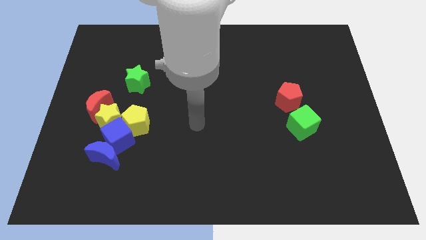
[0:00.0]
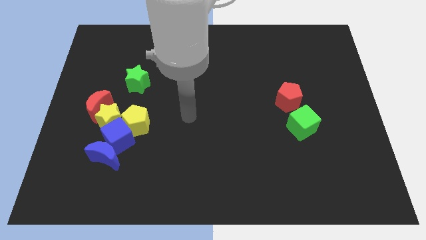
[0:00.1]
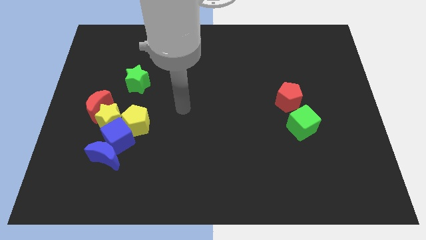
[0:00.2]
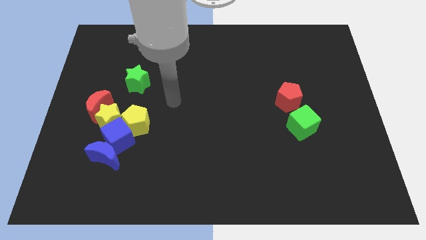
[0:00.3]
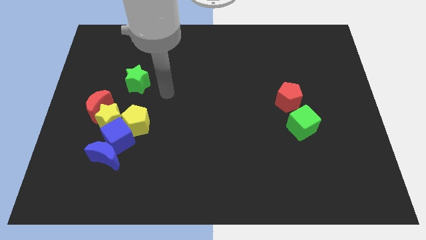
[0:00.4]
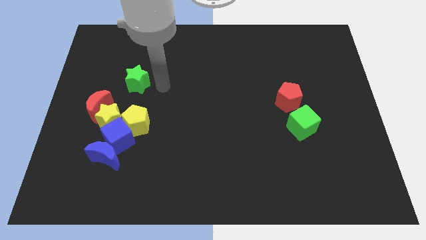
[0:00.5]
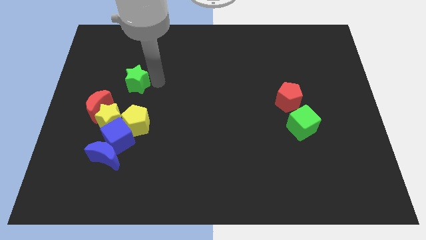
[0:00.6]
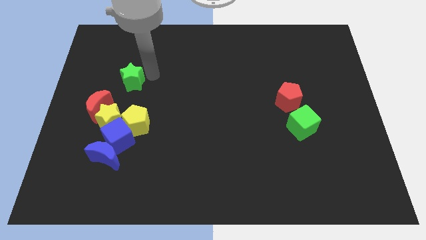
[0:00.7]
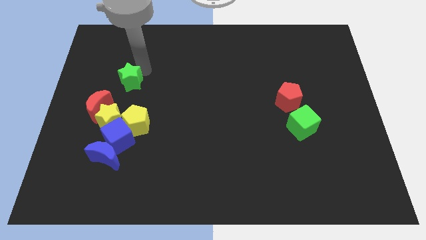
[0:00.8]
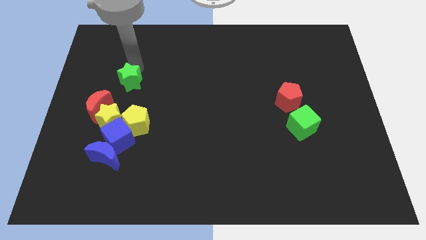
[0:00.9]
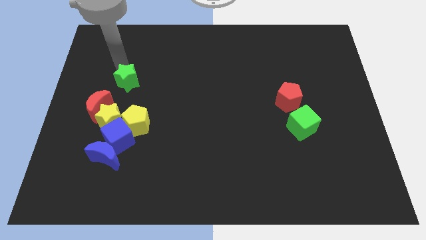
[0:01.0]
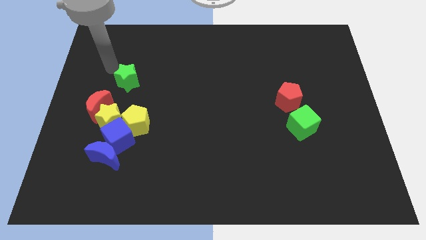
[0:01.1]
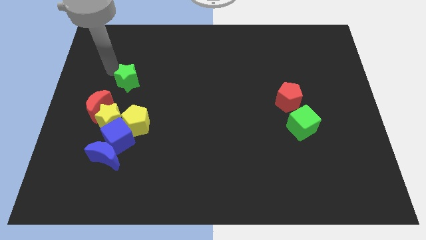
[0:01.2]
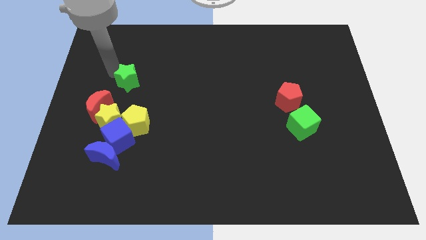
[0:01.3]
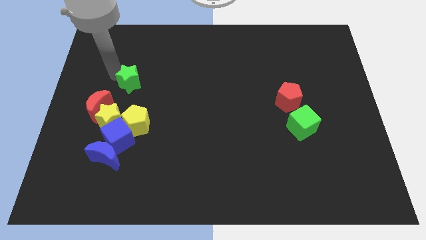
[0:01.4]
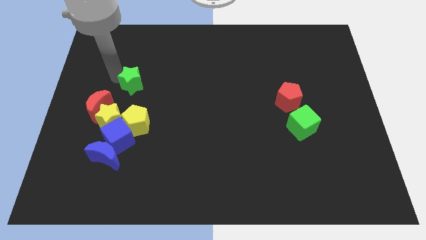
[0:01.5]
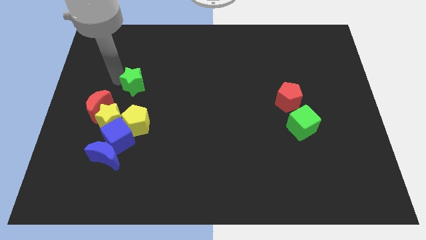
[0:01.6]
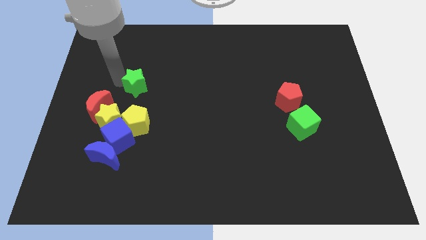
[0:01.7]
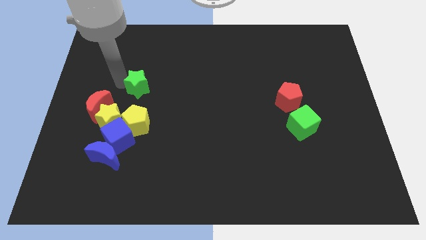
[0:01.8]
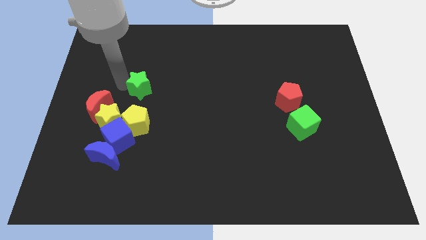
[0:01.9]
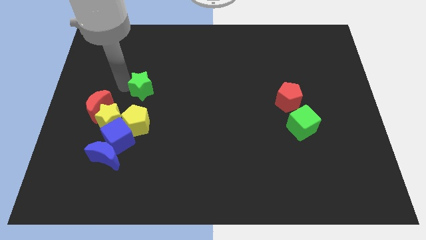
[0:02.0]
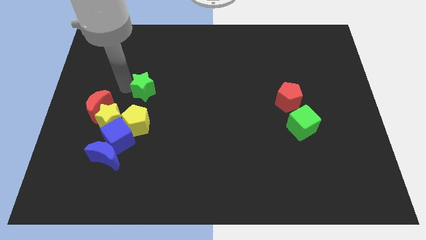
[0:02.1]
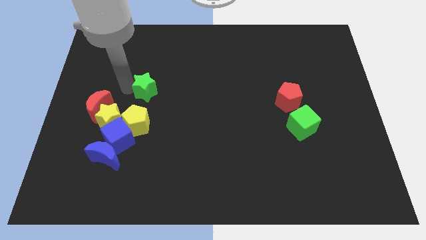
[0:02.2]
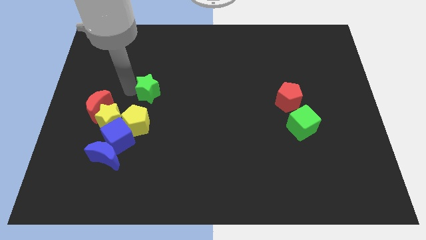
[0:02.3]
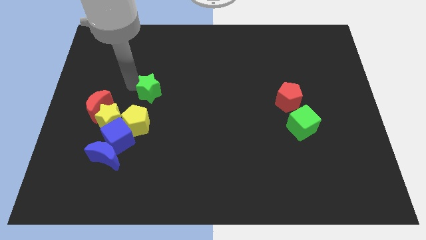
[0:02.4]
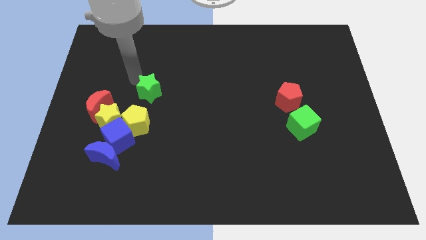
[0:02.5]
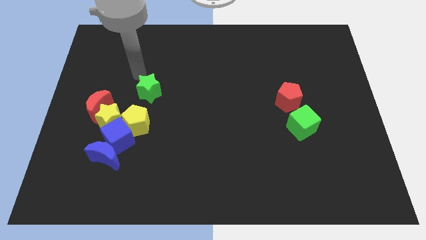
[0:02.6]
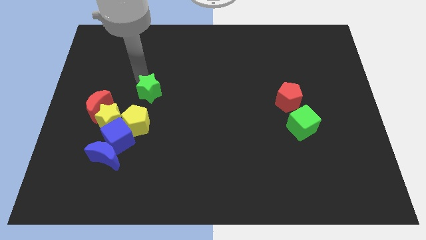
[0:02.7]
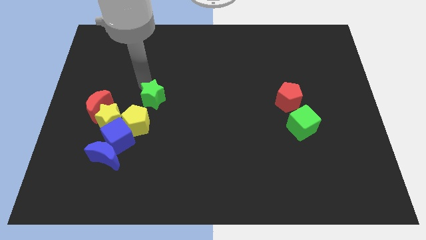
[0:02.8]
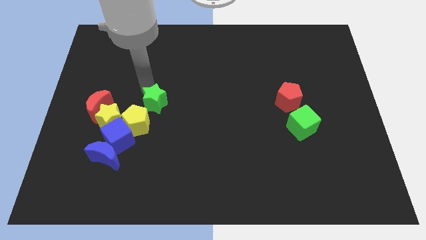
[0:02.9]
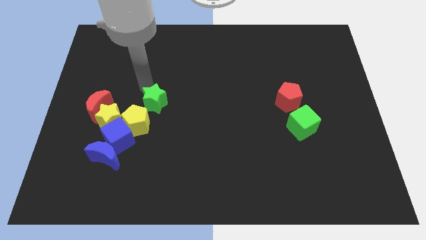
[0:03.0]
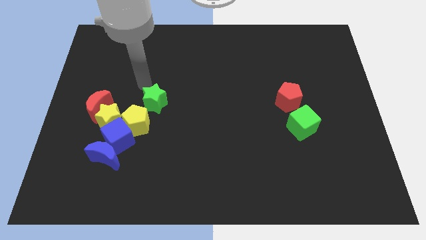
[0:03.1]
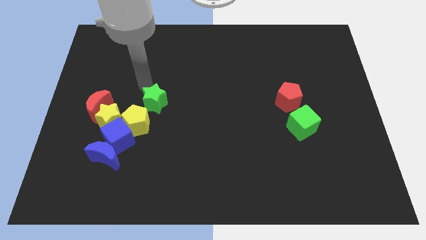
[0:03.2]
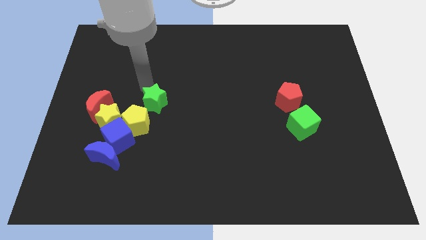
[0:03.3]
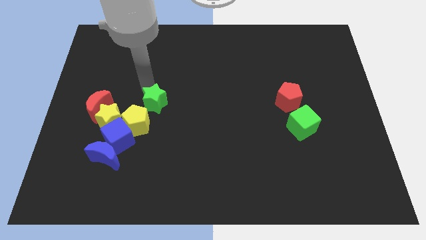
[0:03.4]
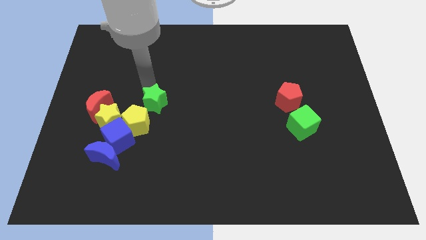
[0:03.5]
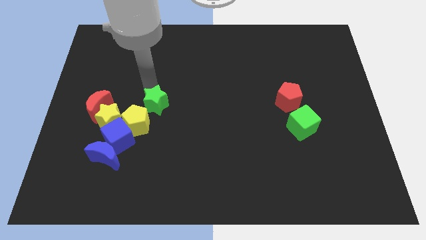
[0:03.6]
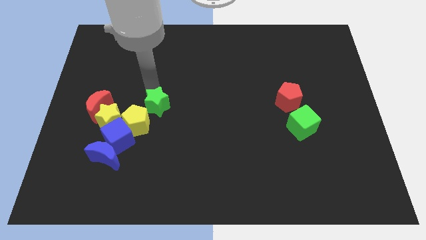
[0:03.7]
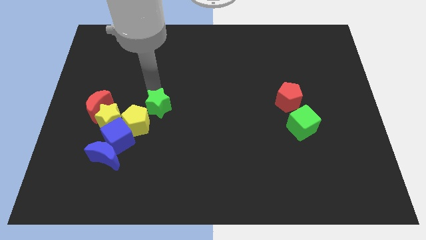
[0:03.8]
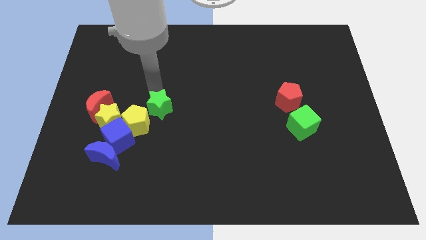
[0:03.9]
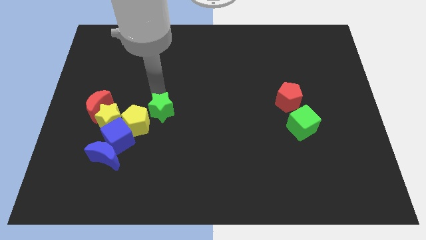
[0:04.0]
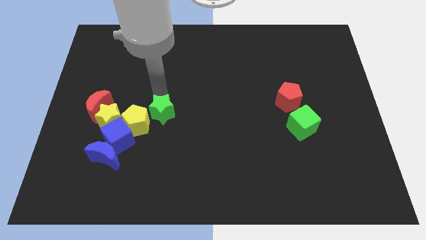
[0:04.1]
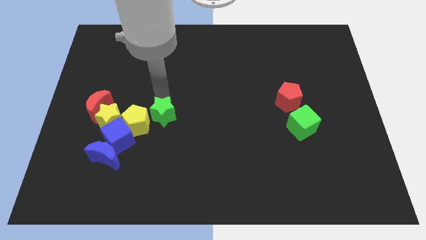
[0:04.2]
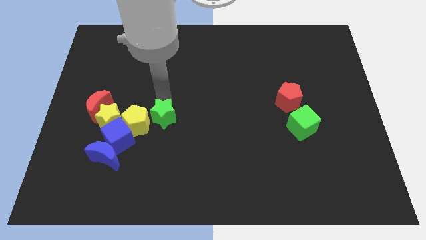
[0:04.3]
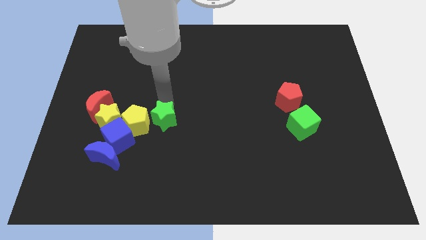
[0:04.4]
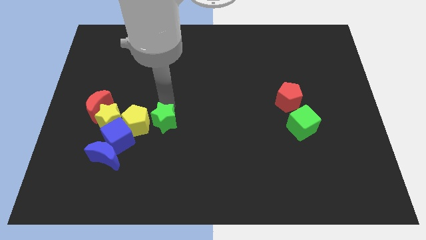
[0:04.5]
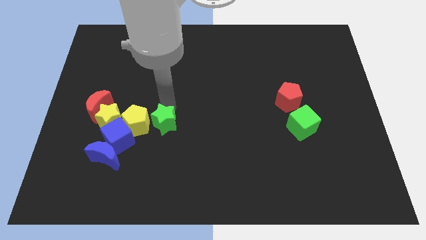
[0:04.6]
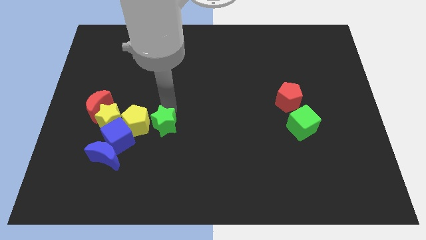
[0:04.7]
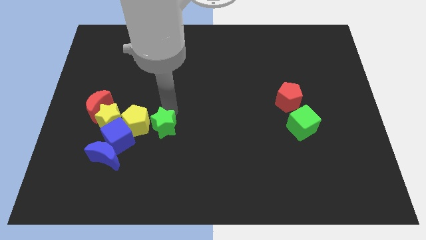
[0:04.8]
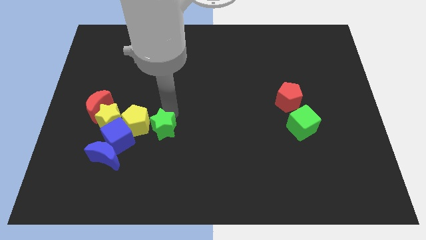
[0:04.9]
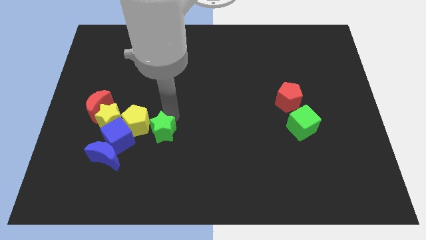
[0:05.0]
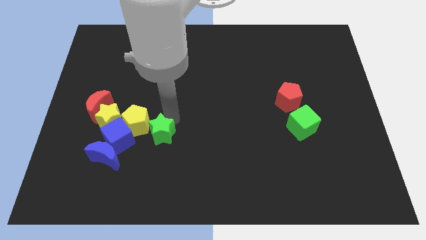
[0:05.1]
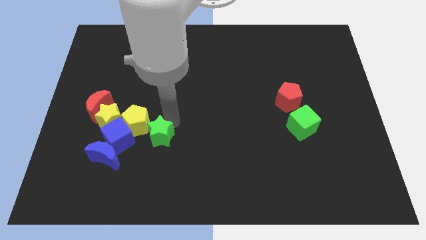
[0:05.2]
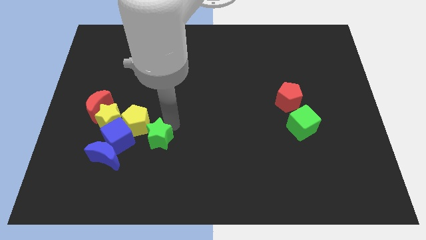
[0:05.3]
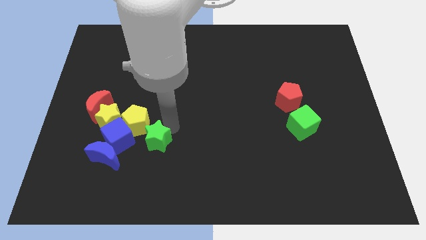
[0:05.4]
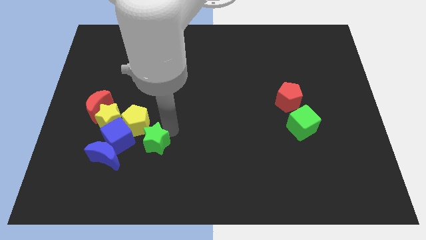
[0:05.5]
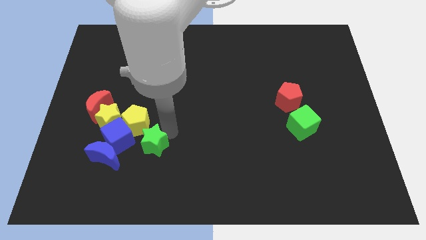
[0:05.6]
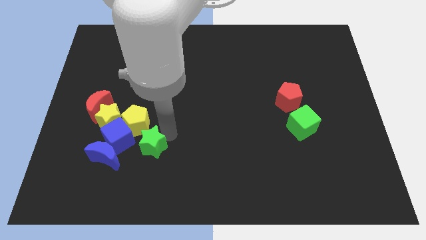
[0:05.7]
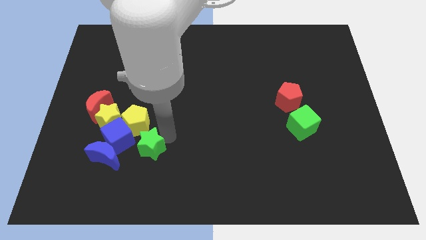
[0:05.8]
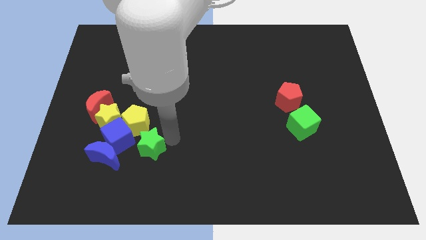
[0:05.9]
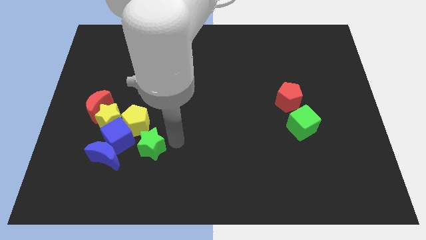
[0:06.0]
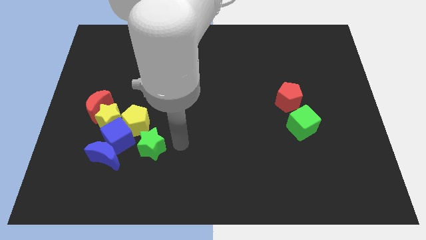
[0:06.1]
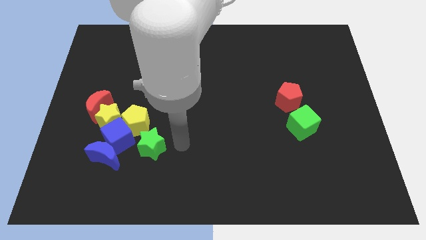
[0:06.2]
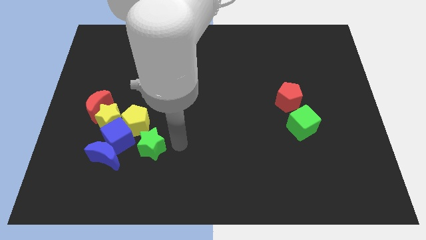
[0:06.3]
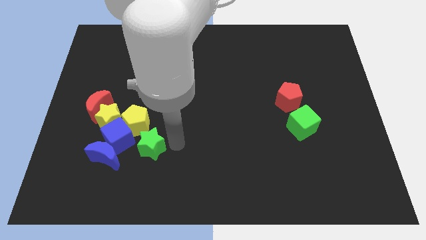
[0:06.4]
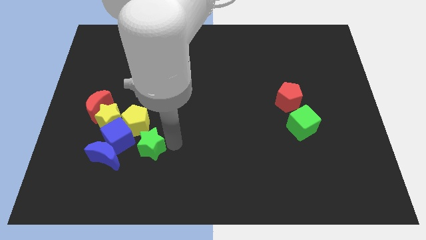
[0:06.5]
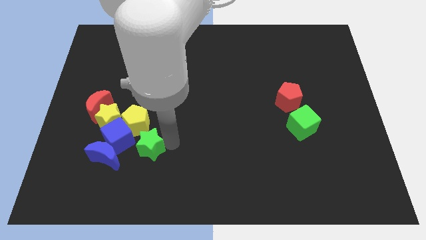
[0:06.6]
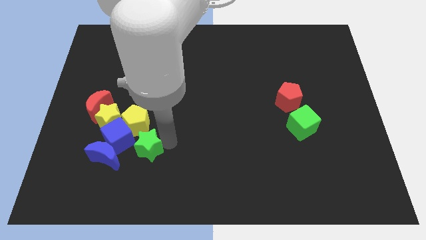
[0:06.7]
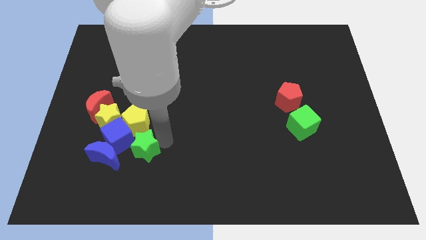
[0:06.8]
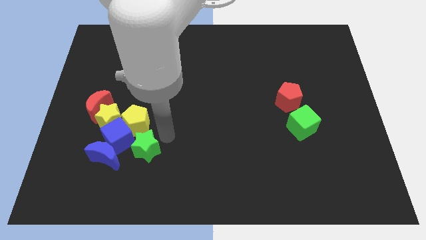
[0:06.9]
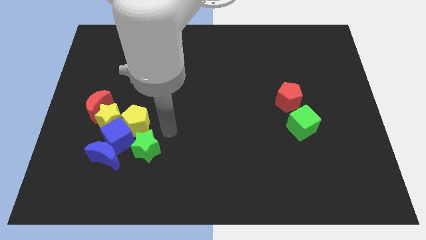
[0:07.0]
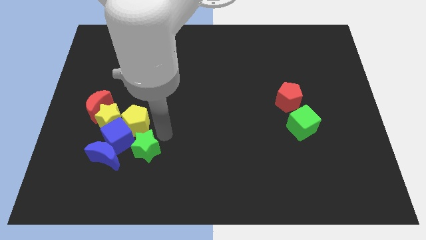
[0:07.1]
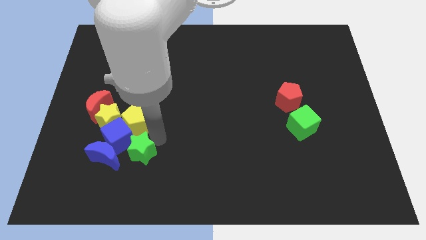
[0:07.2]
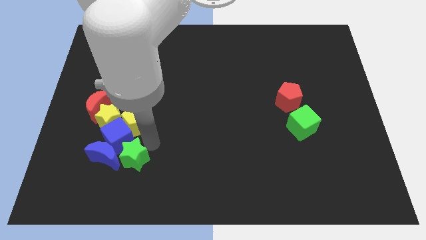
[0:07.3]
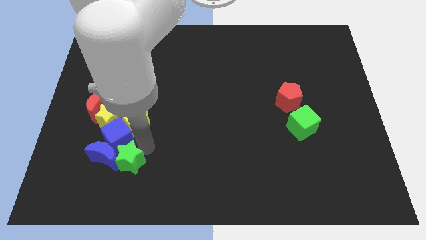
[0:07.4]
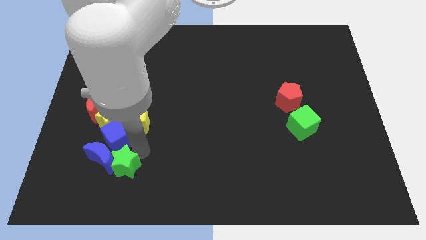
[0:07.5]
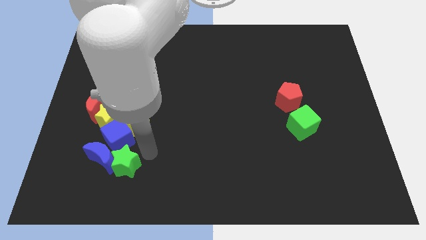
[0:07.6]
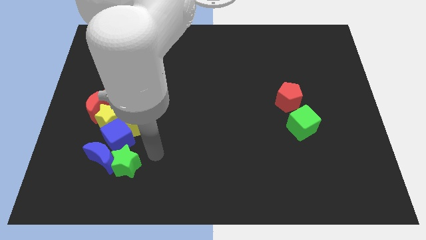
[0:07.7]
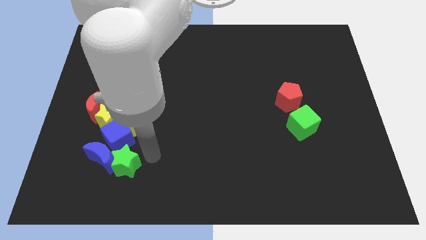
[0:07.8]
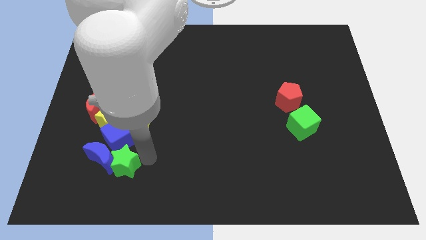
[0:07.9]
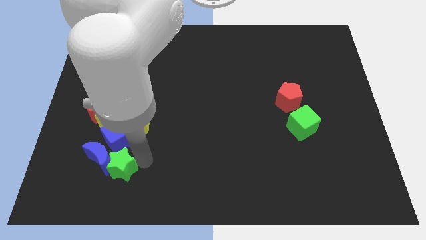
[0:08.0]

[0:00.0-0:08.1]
slide the green star below the yellow star
